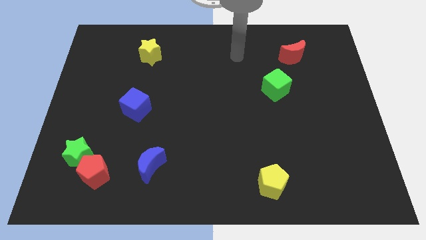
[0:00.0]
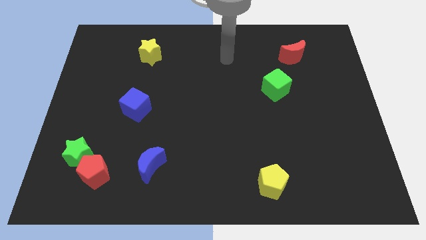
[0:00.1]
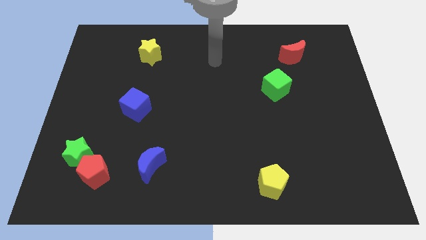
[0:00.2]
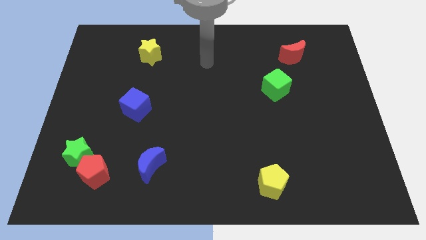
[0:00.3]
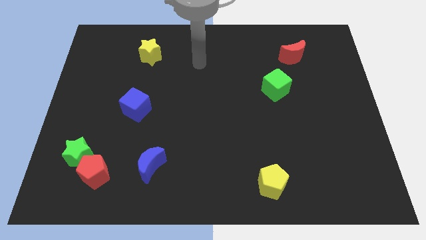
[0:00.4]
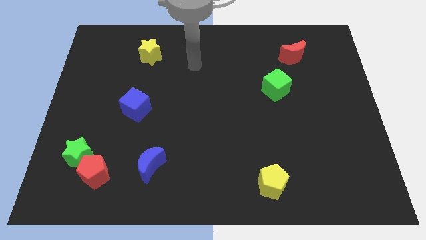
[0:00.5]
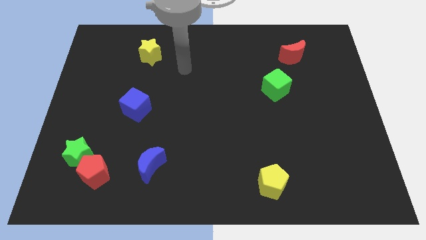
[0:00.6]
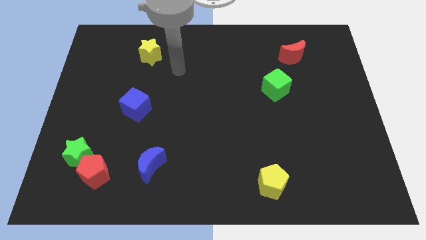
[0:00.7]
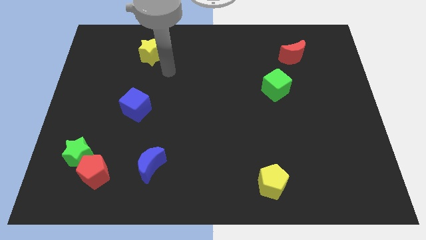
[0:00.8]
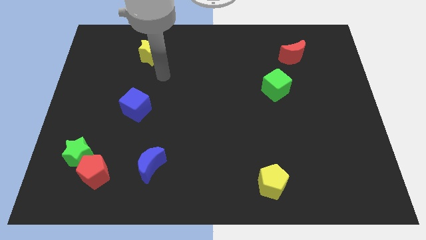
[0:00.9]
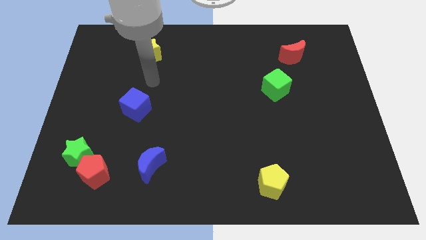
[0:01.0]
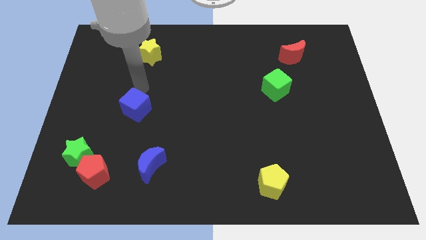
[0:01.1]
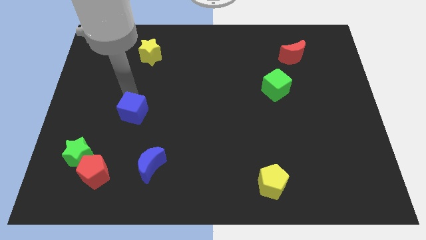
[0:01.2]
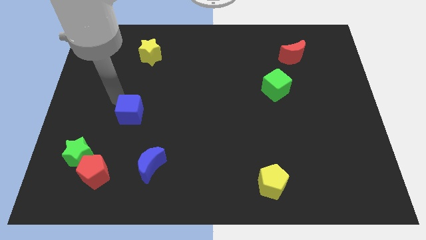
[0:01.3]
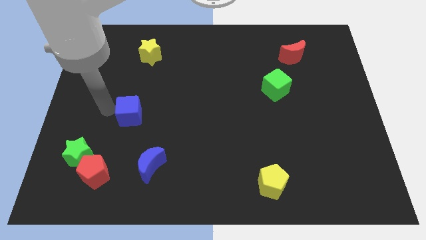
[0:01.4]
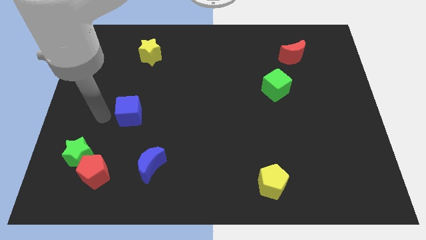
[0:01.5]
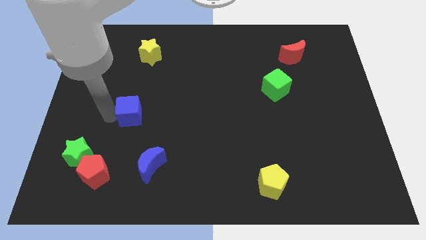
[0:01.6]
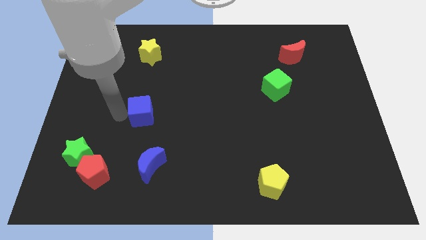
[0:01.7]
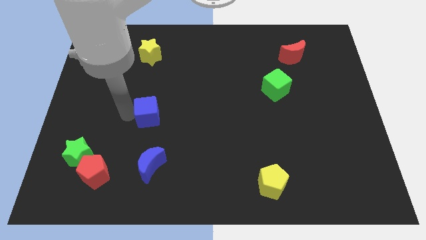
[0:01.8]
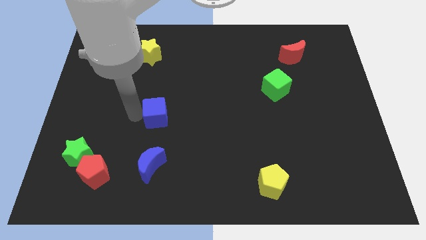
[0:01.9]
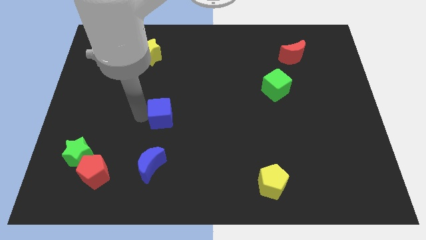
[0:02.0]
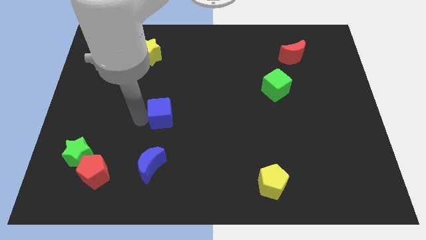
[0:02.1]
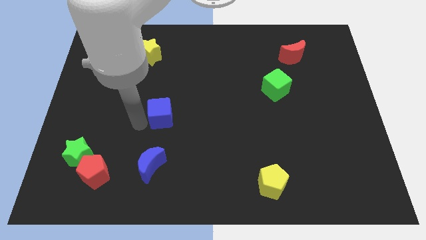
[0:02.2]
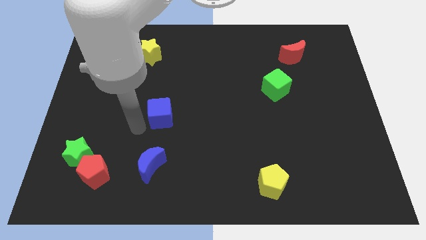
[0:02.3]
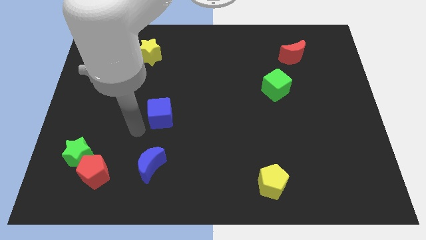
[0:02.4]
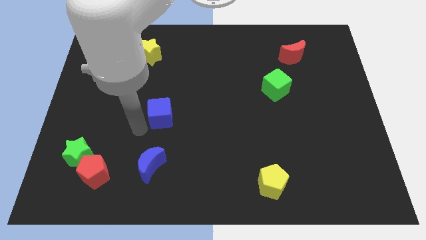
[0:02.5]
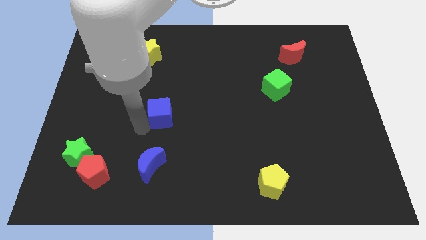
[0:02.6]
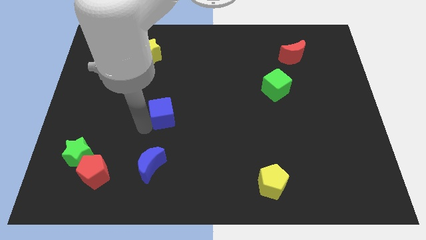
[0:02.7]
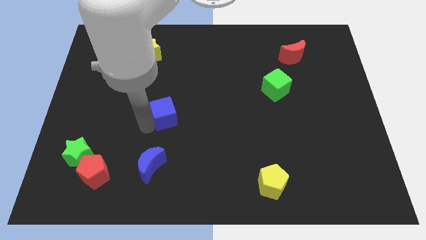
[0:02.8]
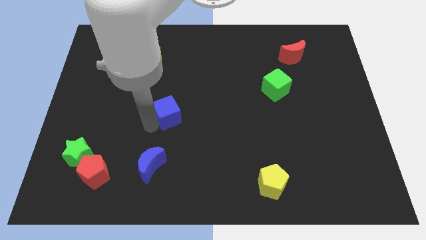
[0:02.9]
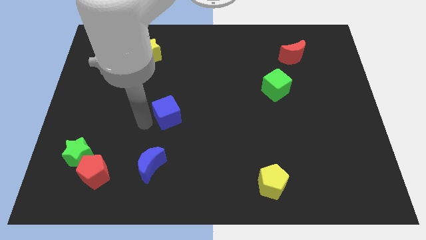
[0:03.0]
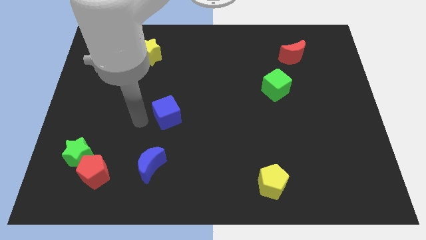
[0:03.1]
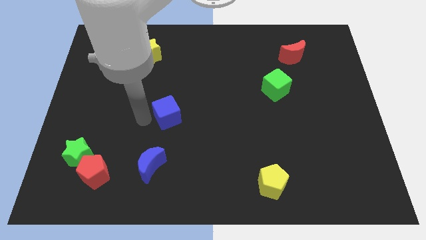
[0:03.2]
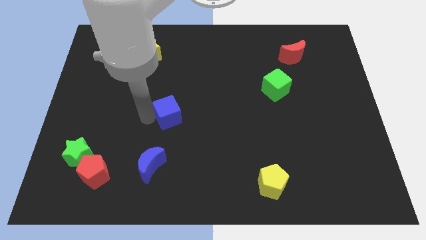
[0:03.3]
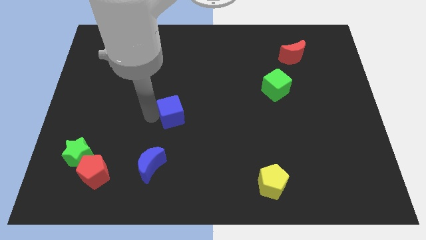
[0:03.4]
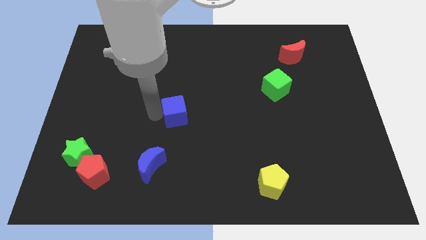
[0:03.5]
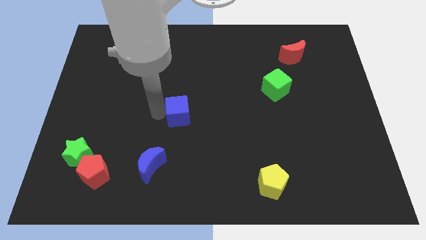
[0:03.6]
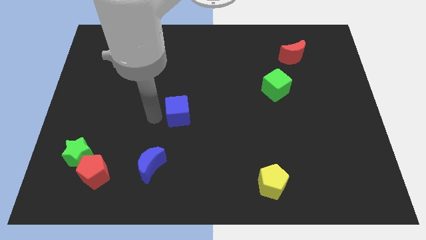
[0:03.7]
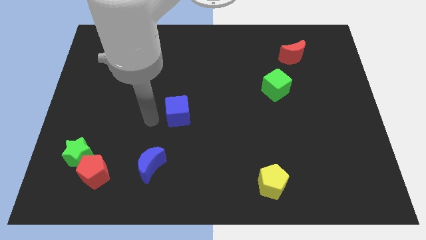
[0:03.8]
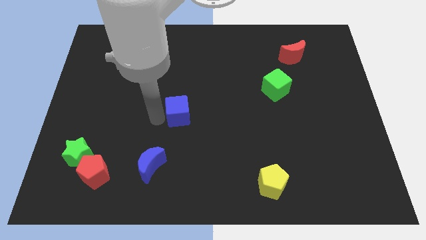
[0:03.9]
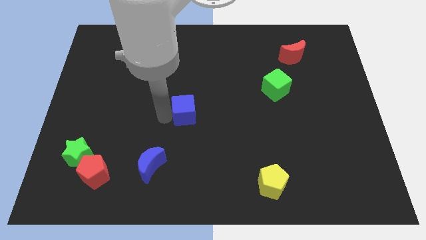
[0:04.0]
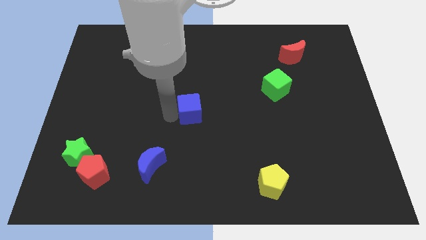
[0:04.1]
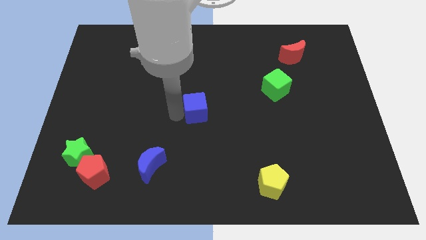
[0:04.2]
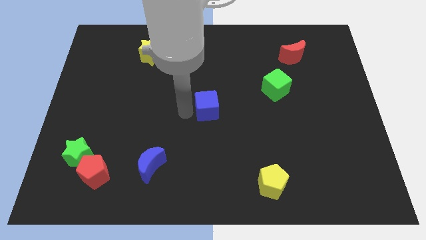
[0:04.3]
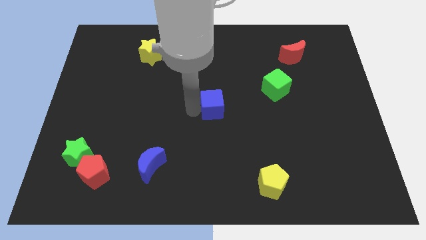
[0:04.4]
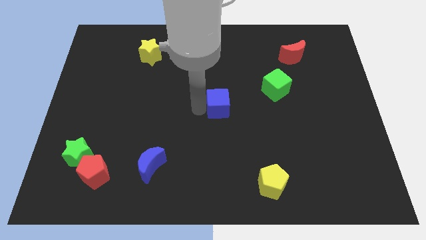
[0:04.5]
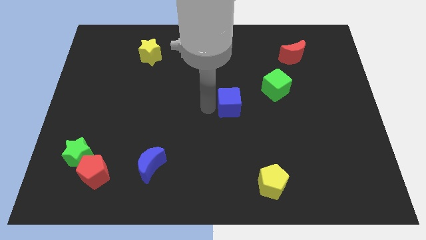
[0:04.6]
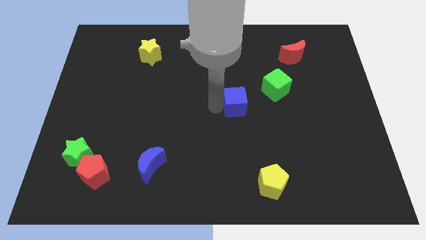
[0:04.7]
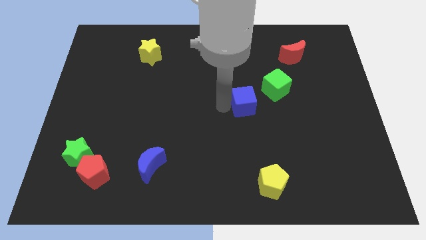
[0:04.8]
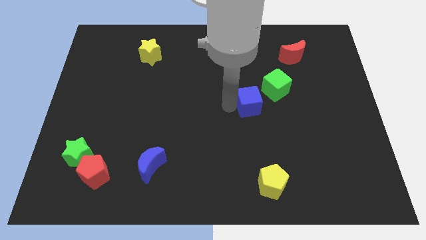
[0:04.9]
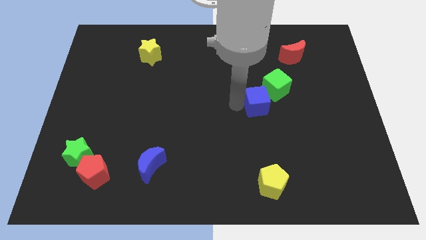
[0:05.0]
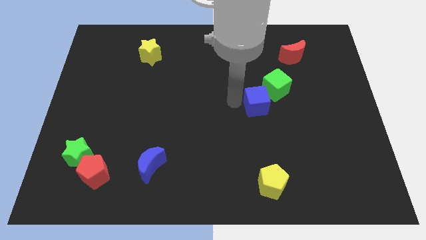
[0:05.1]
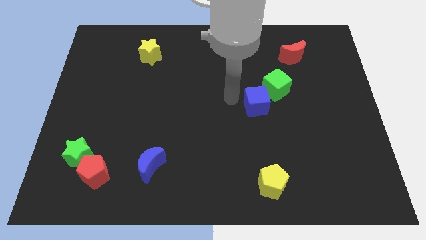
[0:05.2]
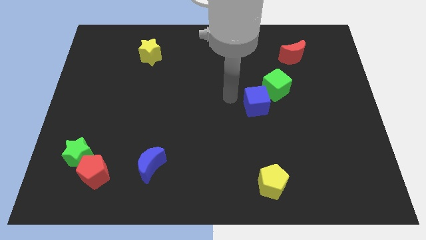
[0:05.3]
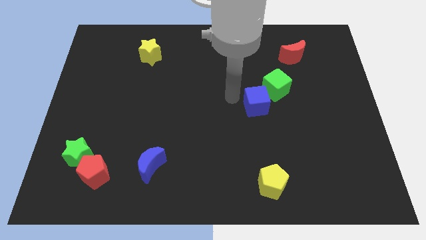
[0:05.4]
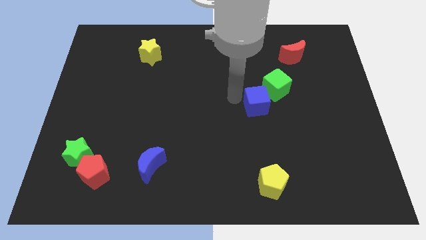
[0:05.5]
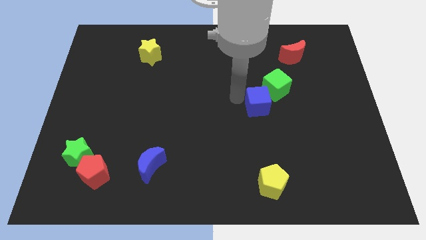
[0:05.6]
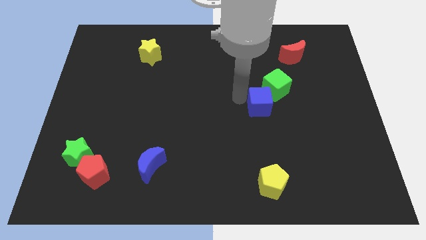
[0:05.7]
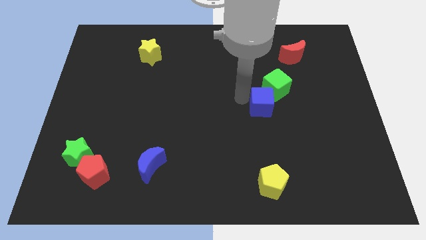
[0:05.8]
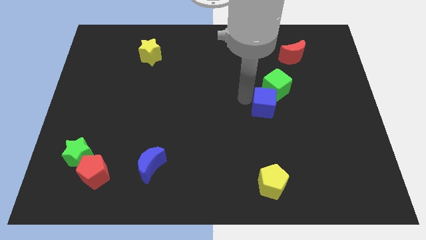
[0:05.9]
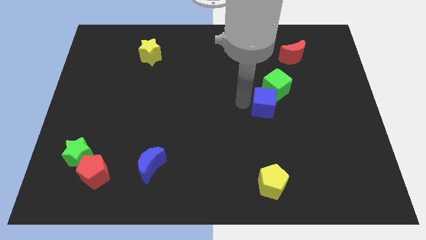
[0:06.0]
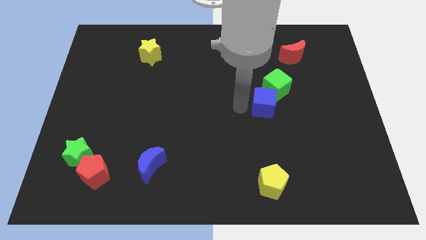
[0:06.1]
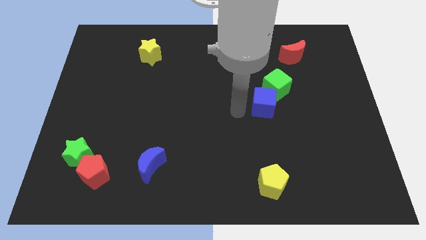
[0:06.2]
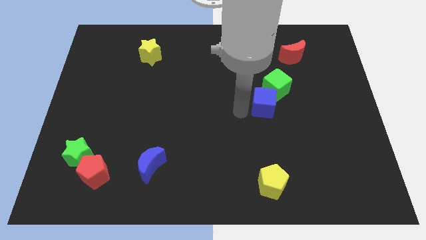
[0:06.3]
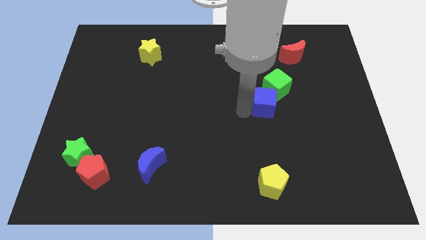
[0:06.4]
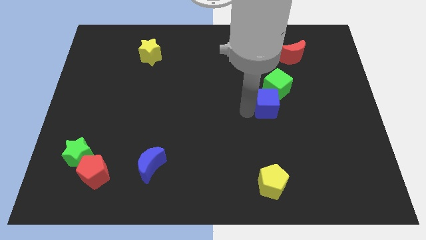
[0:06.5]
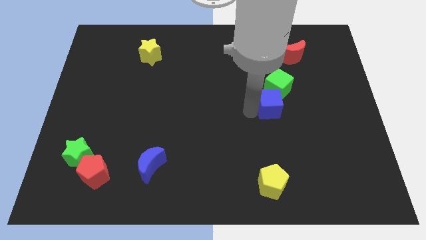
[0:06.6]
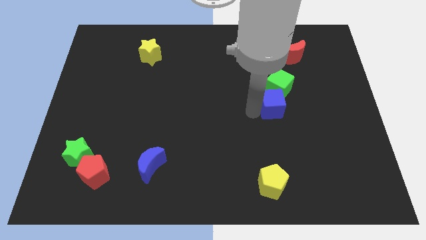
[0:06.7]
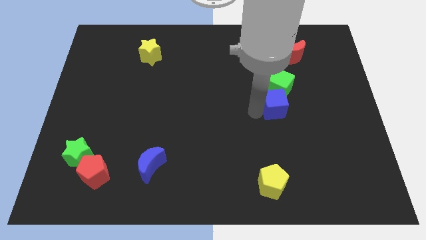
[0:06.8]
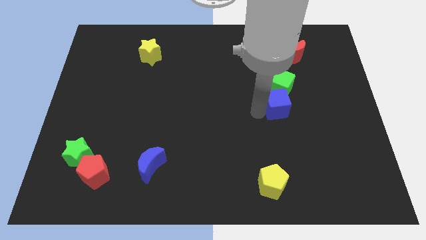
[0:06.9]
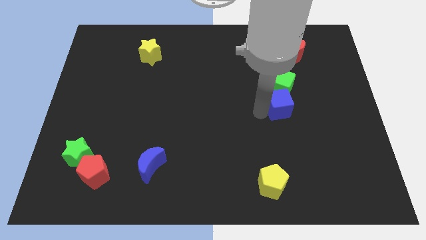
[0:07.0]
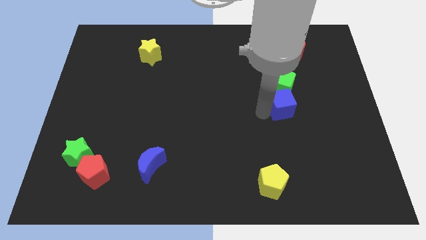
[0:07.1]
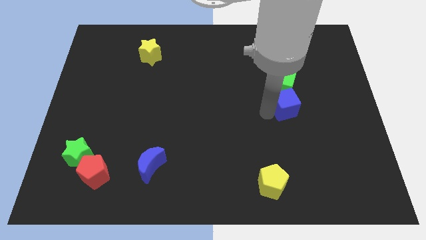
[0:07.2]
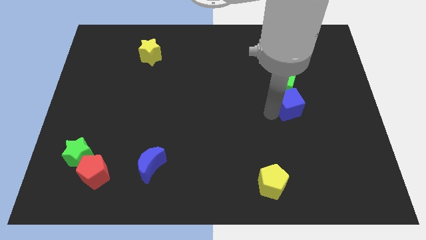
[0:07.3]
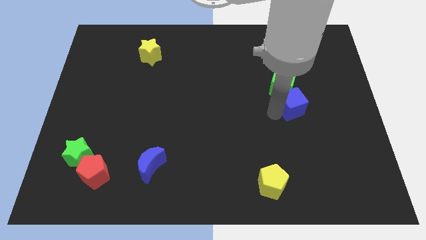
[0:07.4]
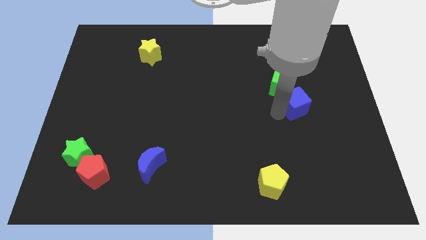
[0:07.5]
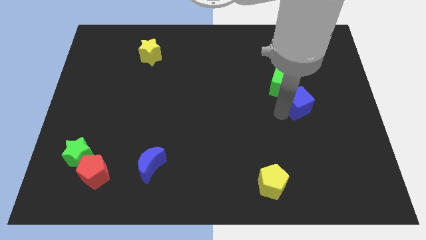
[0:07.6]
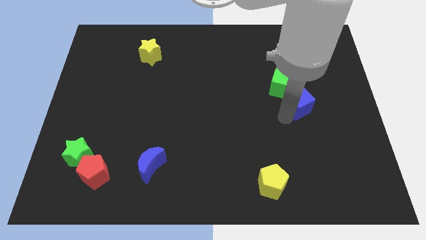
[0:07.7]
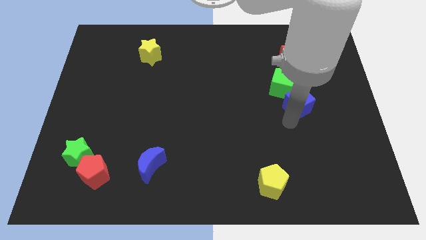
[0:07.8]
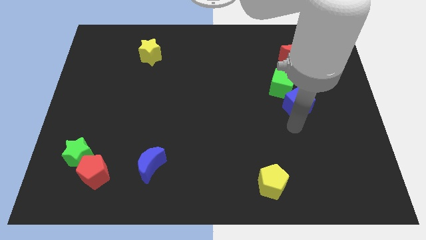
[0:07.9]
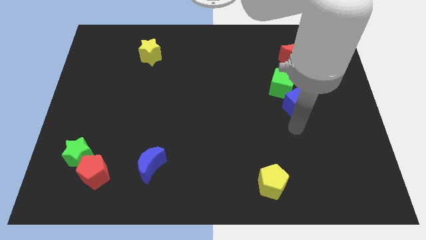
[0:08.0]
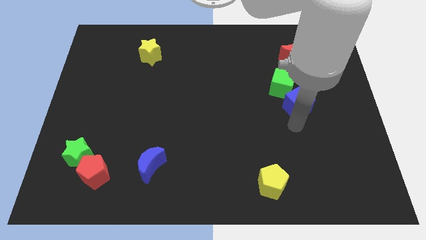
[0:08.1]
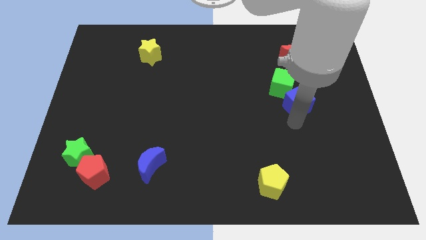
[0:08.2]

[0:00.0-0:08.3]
put the blue cube to the bottom side of the red moon
